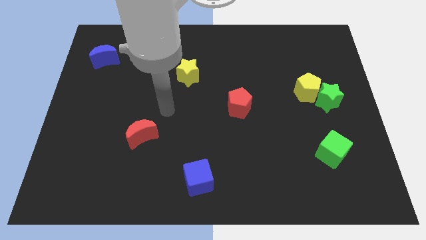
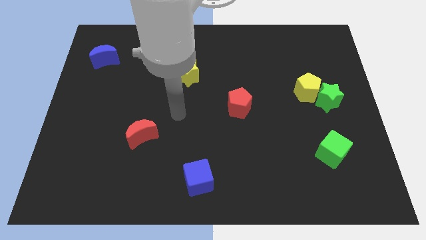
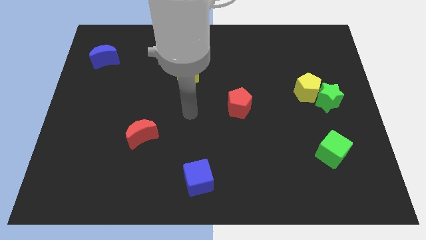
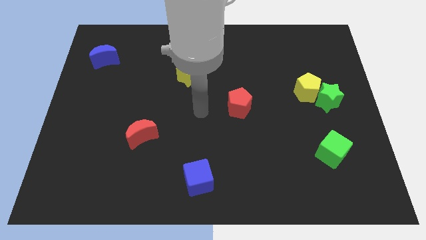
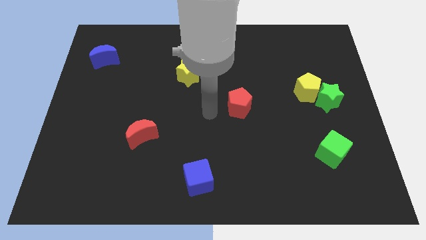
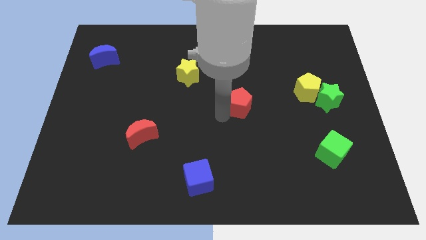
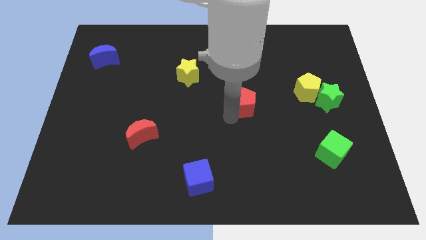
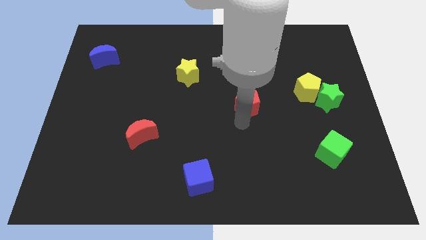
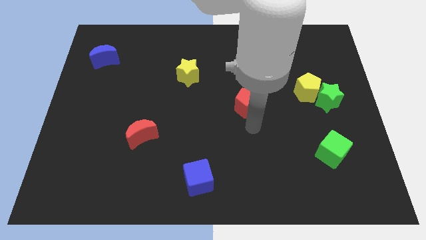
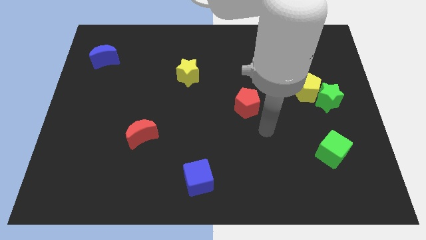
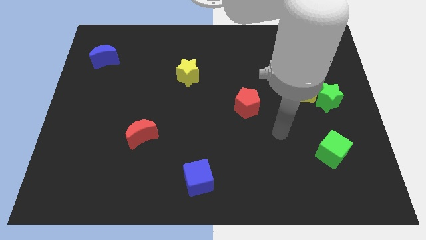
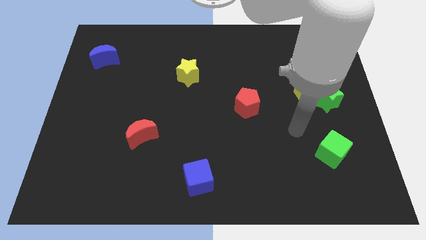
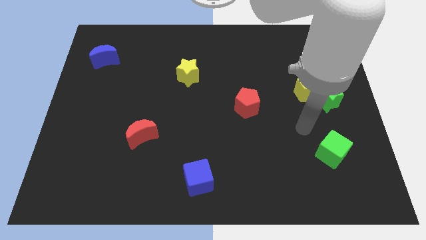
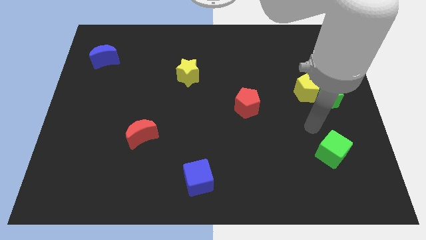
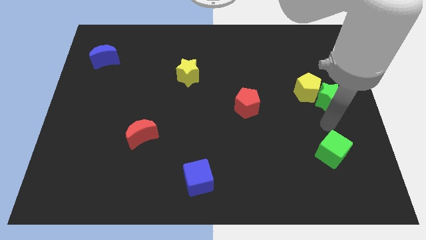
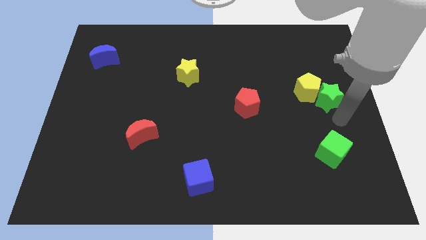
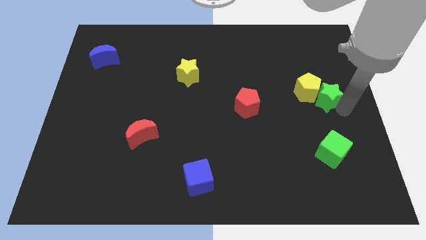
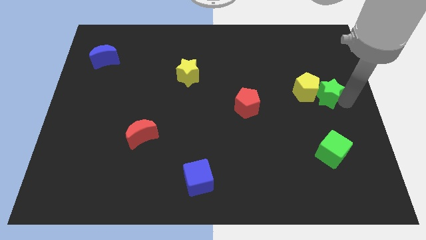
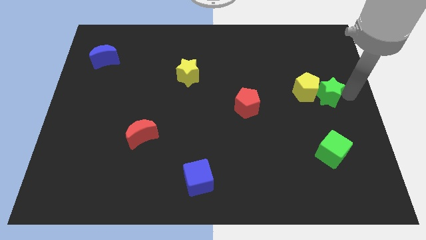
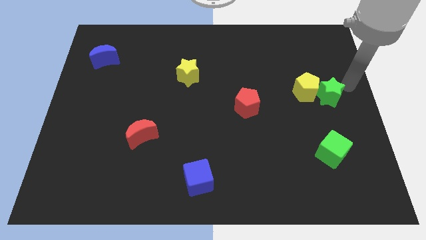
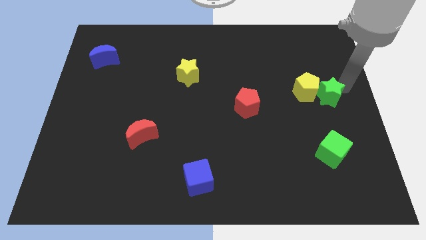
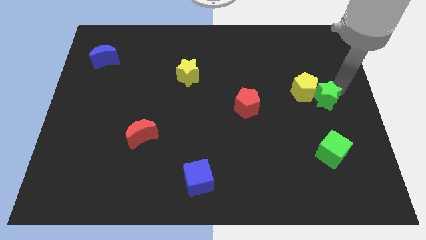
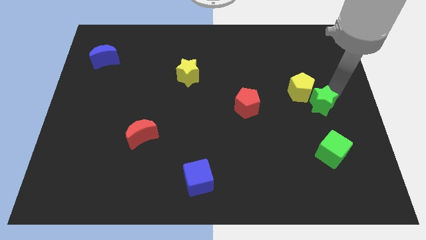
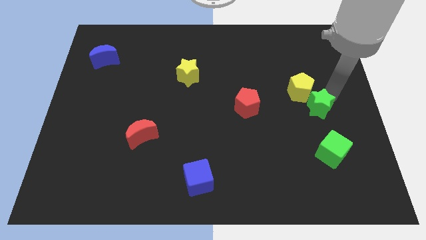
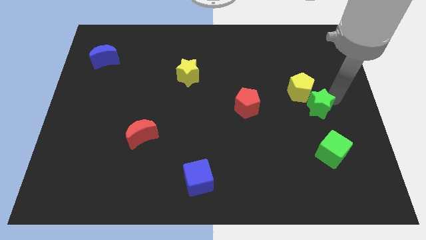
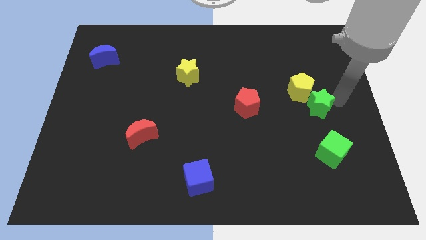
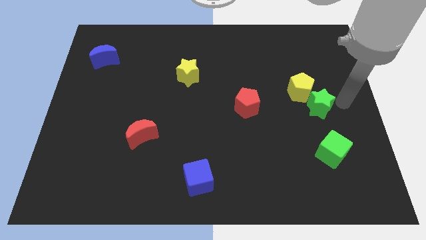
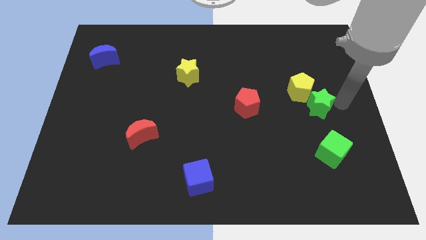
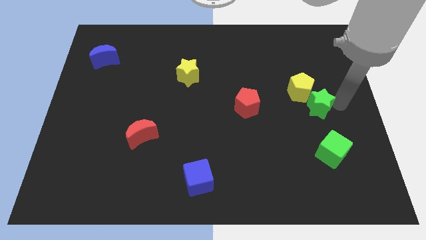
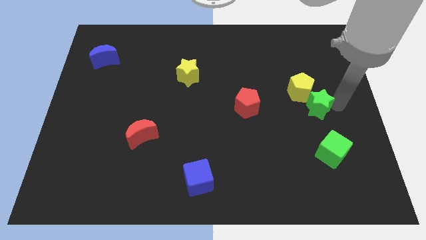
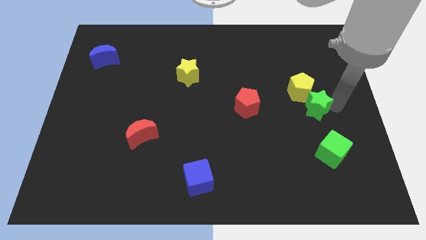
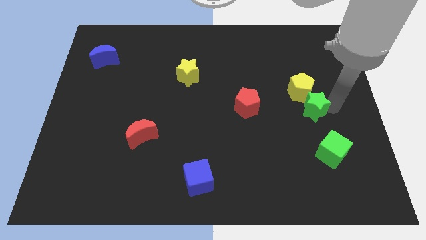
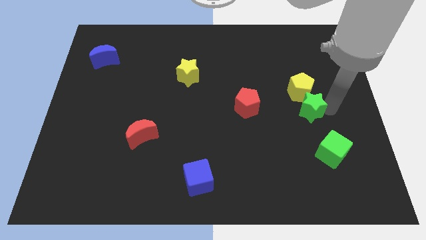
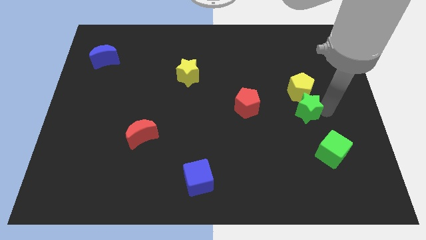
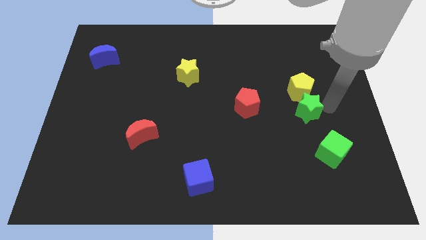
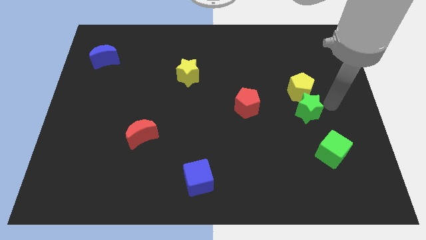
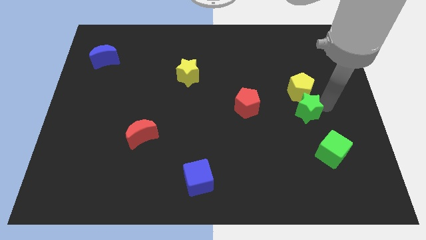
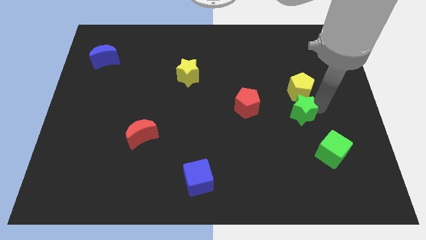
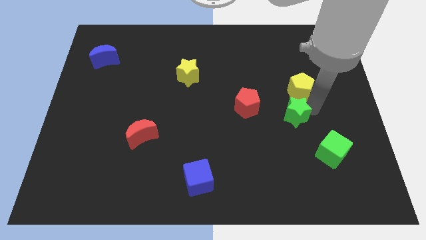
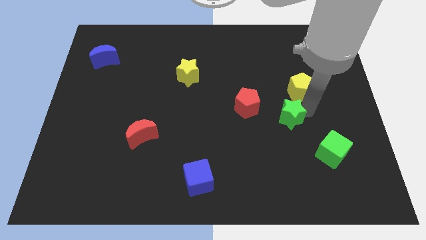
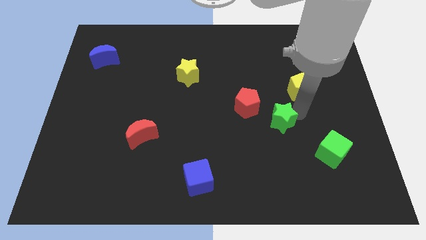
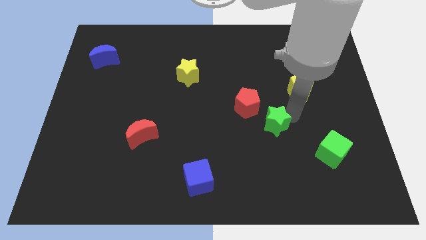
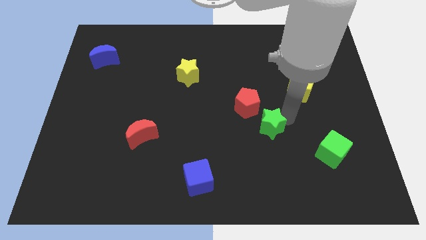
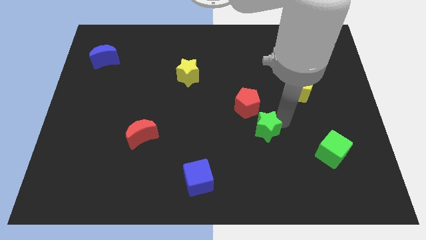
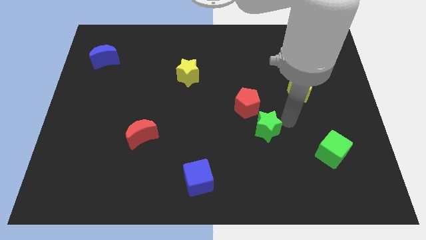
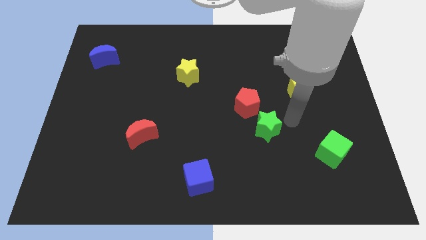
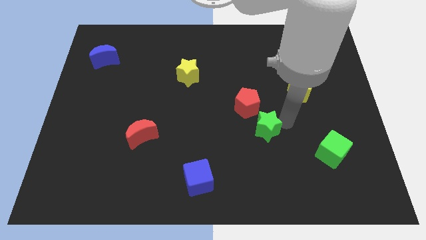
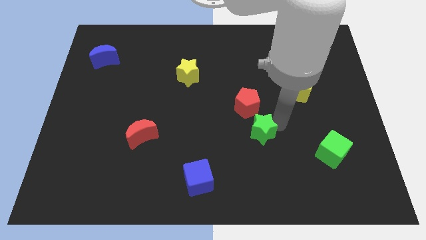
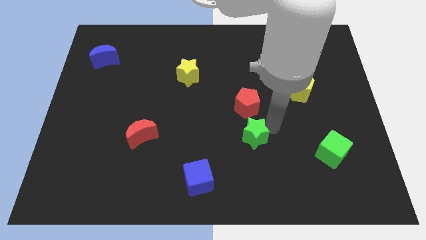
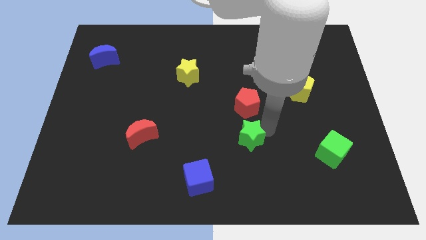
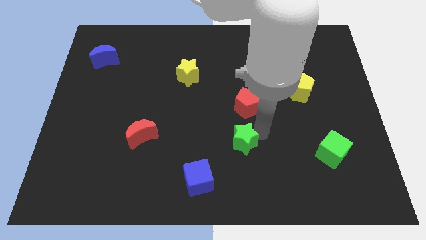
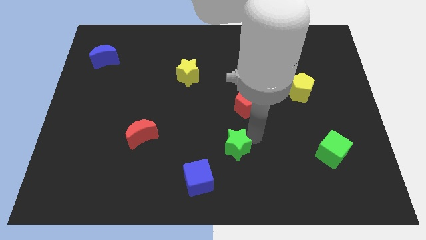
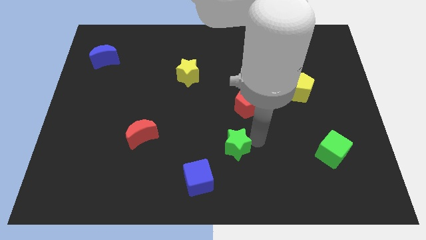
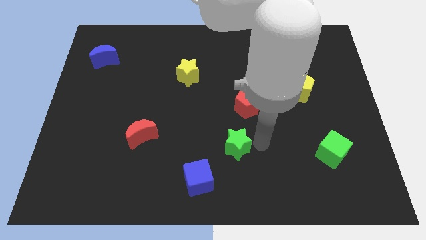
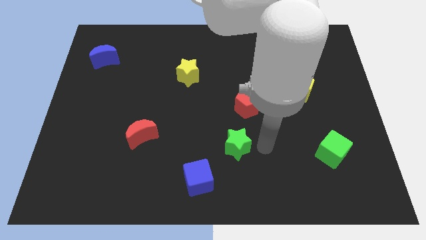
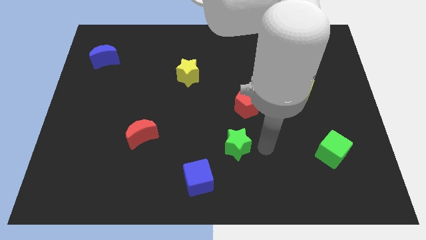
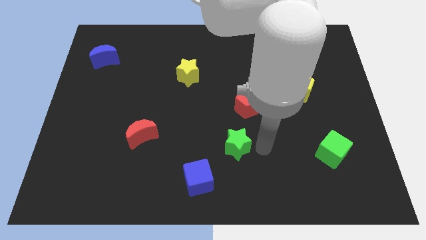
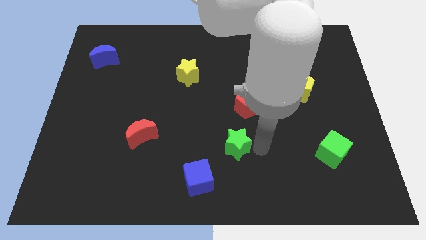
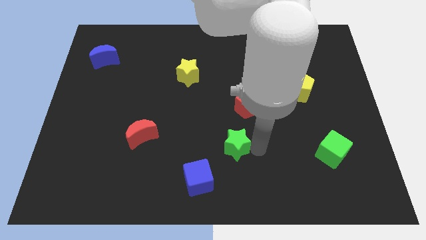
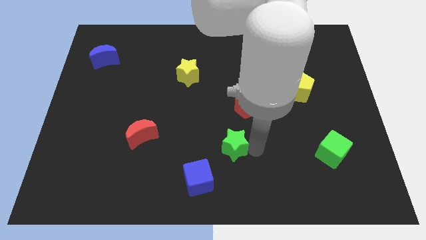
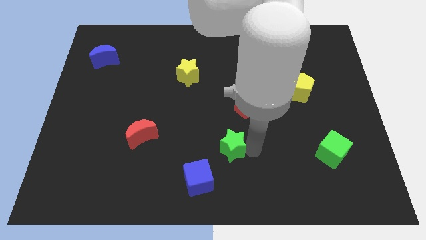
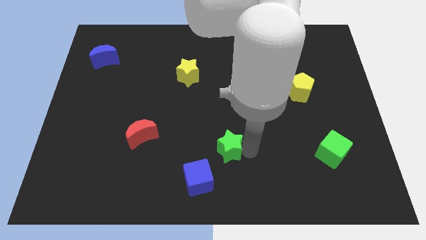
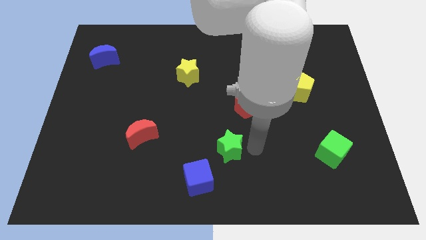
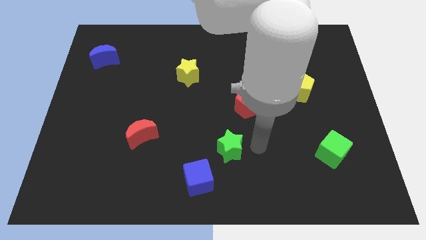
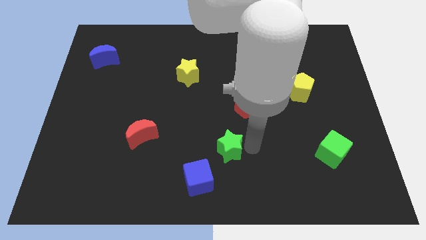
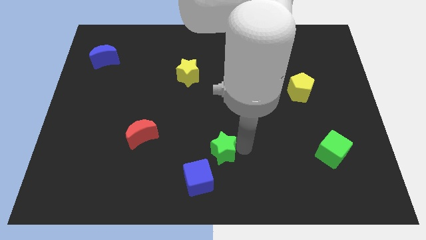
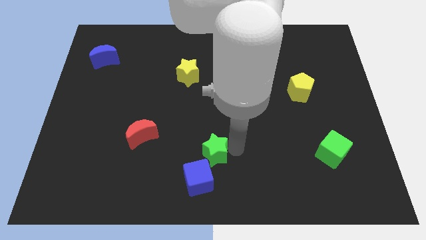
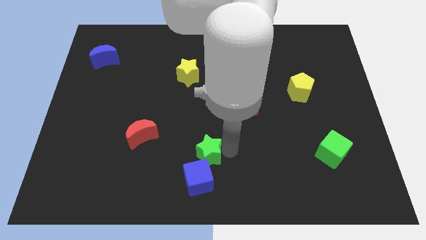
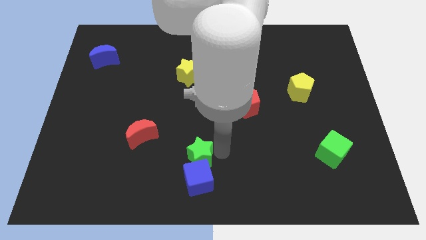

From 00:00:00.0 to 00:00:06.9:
slide the green star to the top left side of the blue cube

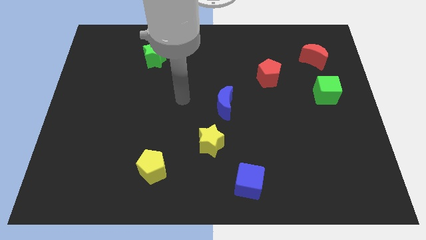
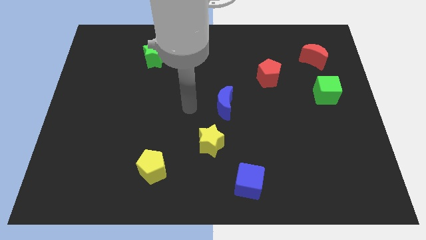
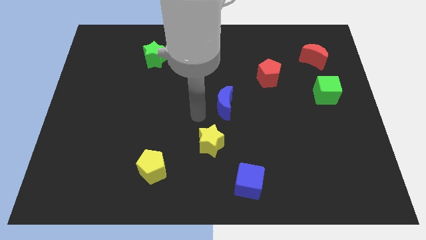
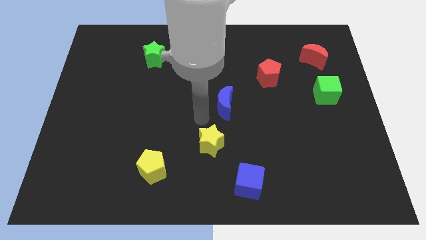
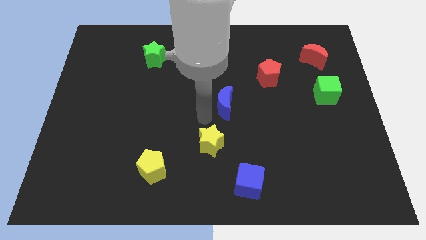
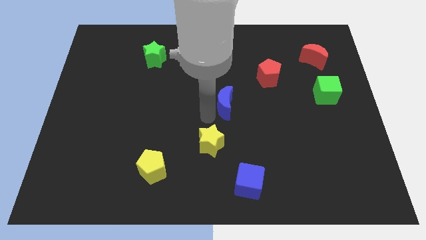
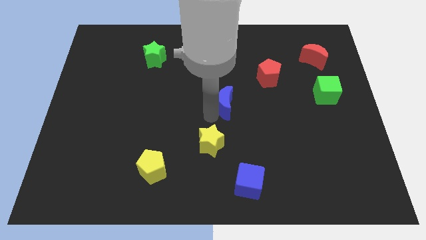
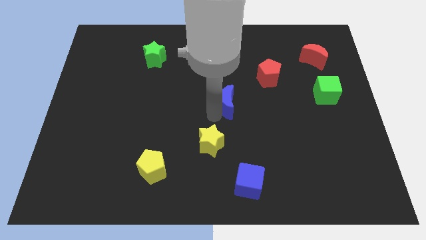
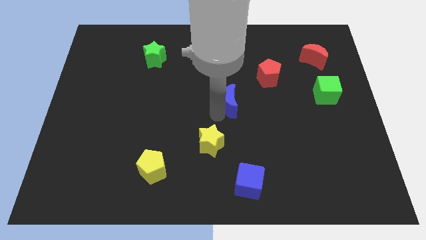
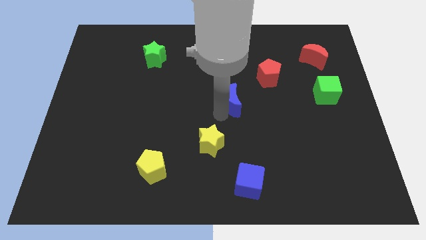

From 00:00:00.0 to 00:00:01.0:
put the blue moon diagonally down and to the left of the red pentagon
